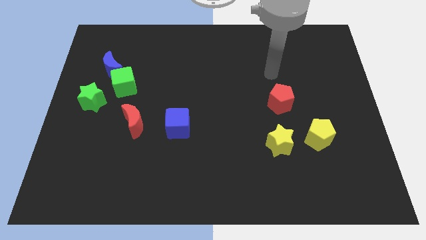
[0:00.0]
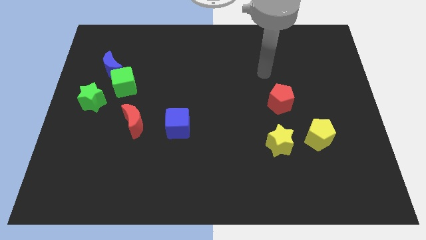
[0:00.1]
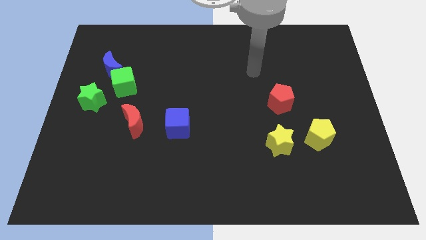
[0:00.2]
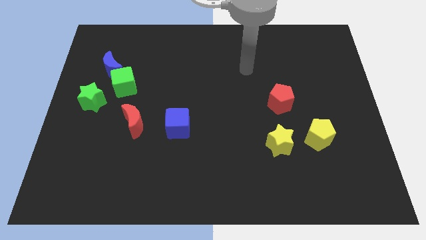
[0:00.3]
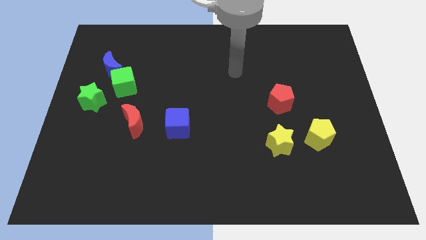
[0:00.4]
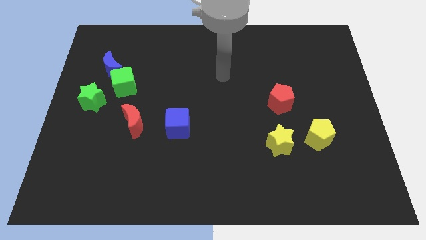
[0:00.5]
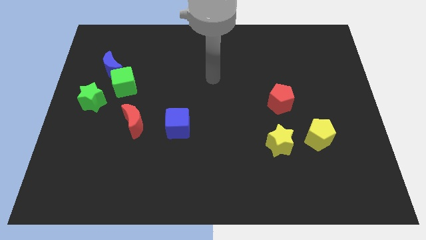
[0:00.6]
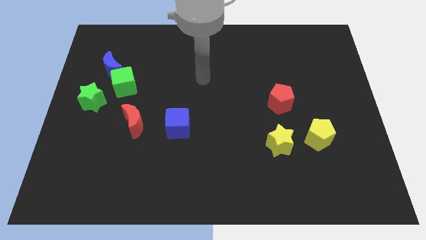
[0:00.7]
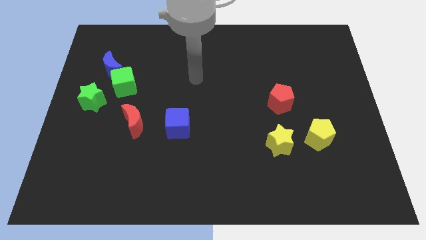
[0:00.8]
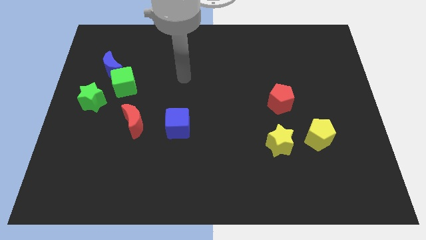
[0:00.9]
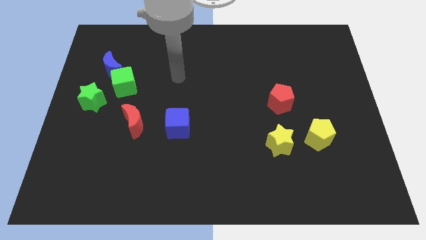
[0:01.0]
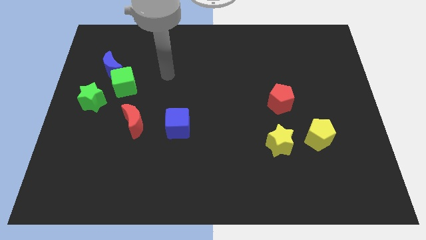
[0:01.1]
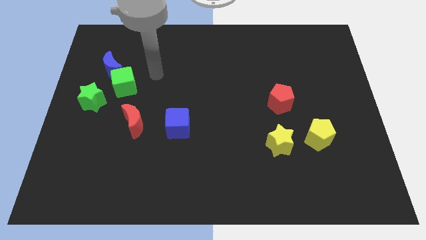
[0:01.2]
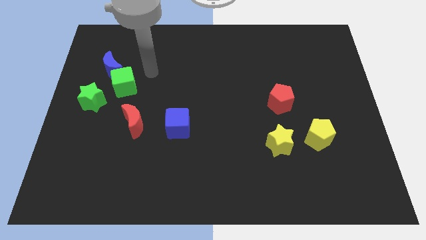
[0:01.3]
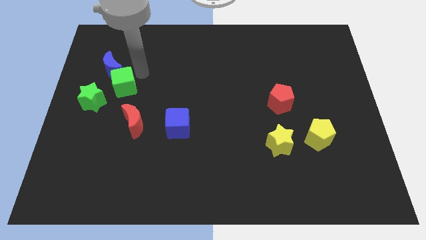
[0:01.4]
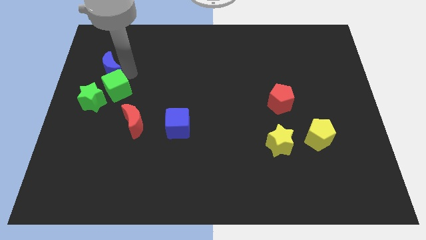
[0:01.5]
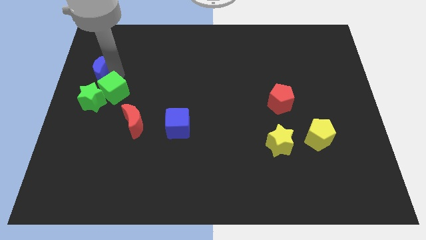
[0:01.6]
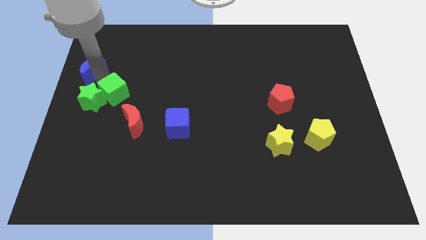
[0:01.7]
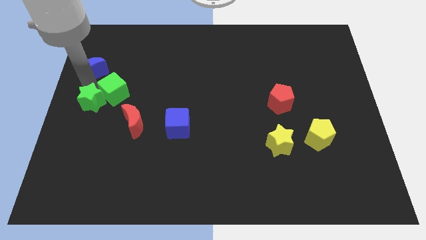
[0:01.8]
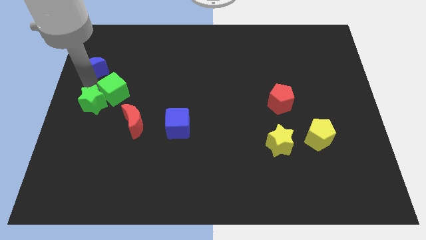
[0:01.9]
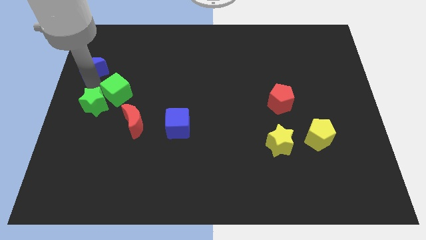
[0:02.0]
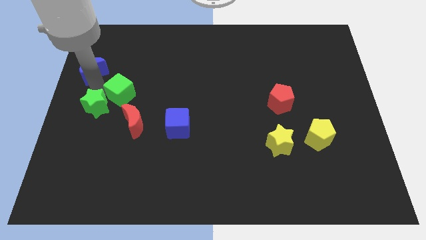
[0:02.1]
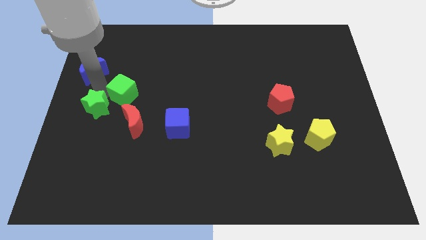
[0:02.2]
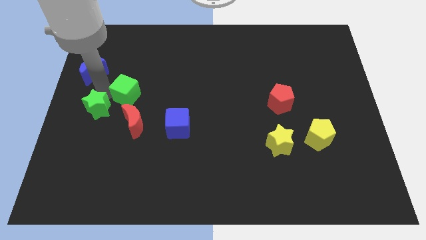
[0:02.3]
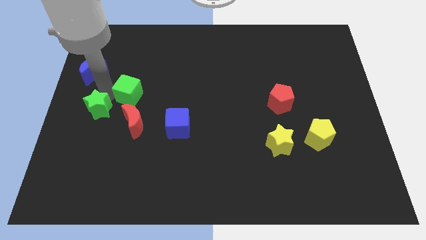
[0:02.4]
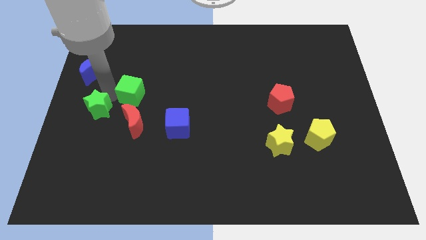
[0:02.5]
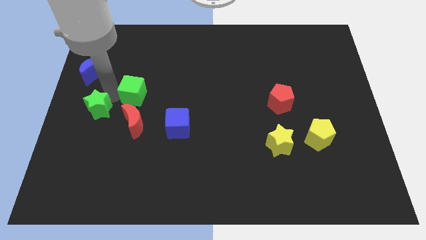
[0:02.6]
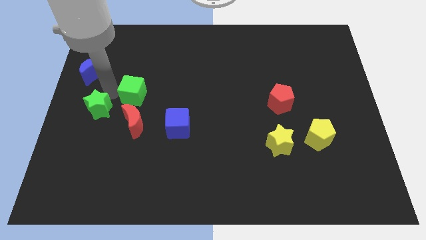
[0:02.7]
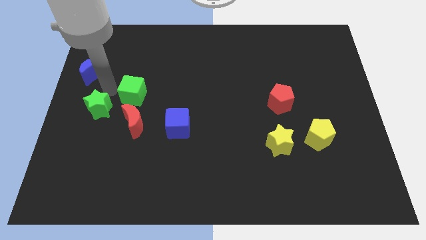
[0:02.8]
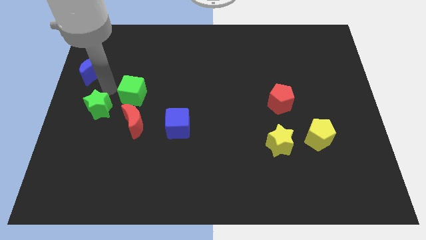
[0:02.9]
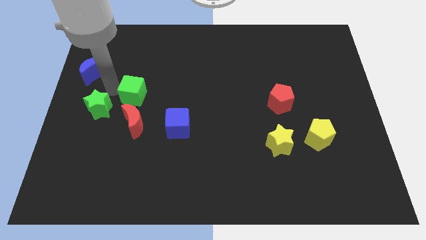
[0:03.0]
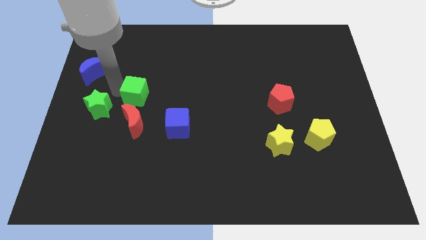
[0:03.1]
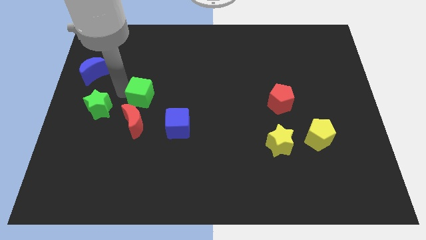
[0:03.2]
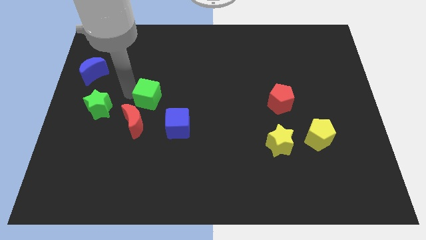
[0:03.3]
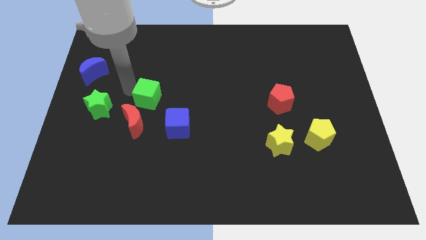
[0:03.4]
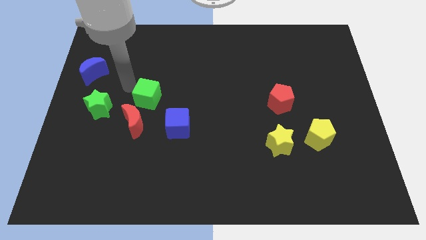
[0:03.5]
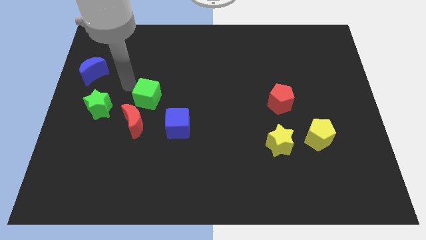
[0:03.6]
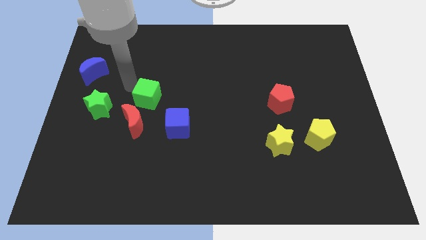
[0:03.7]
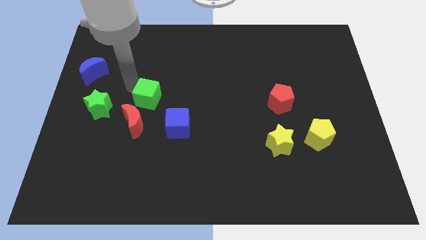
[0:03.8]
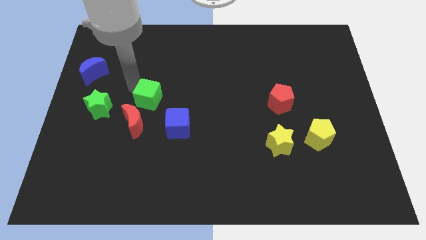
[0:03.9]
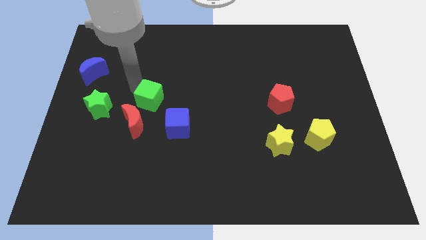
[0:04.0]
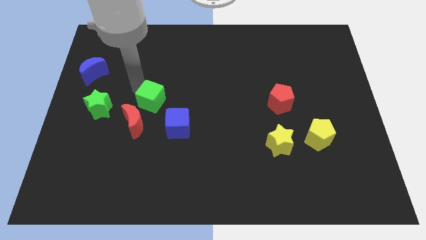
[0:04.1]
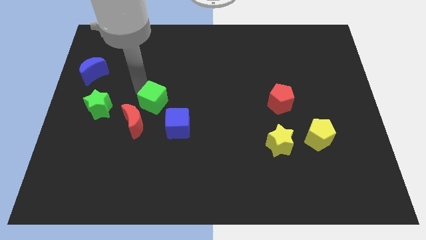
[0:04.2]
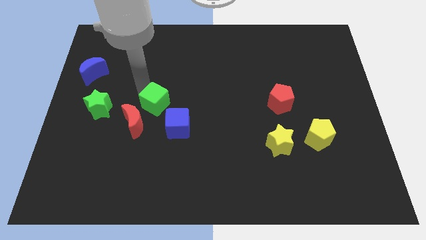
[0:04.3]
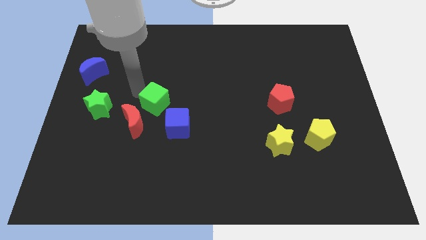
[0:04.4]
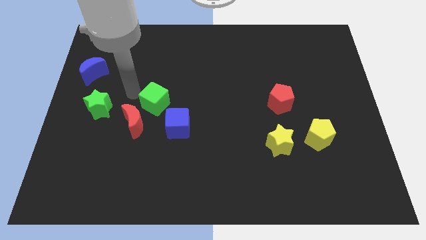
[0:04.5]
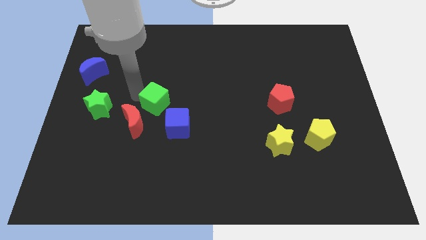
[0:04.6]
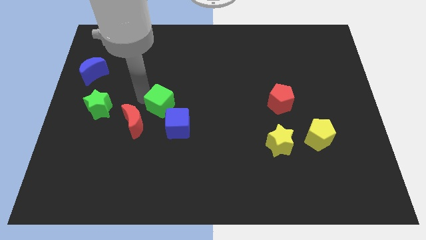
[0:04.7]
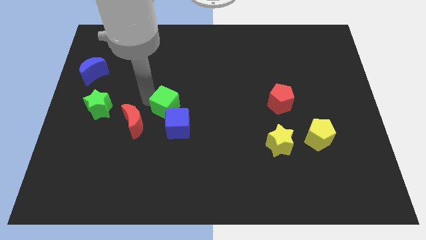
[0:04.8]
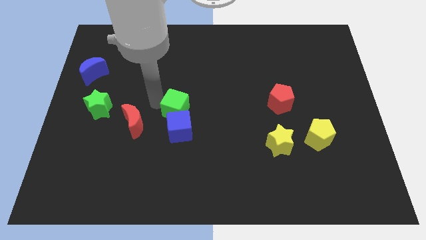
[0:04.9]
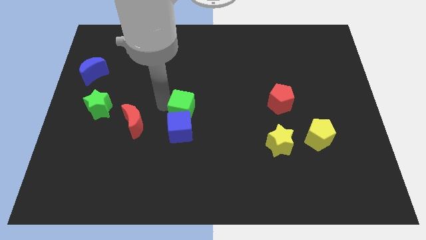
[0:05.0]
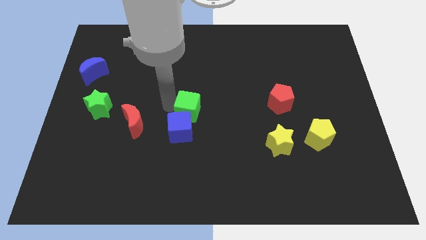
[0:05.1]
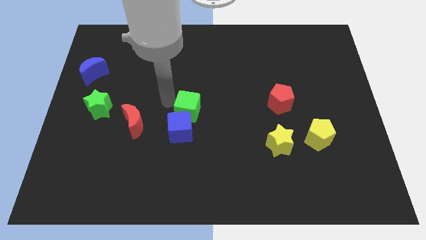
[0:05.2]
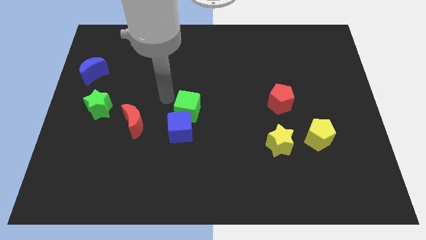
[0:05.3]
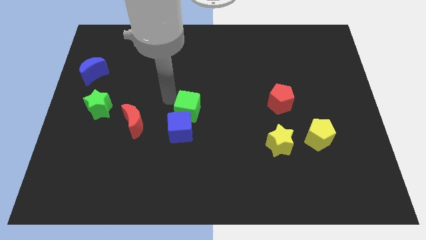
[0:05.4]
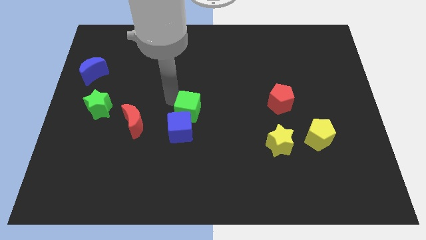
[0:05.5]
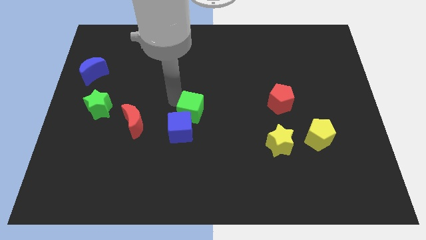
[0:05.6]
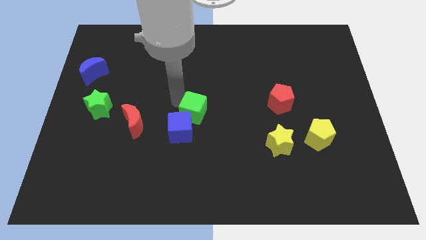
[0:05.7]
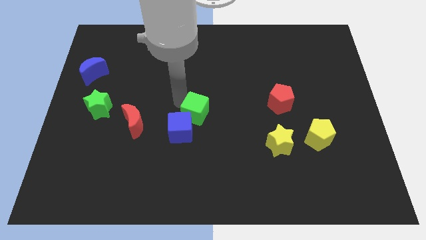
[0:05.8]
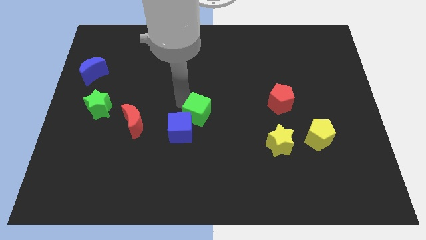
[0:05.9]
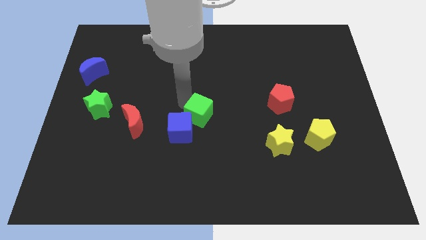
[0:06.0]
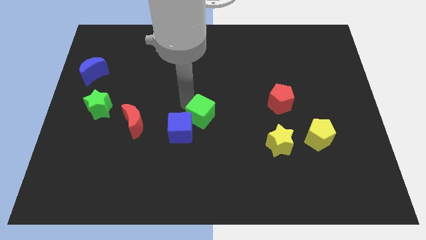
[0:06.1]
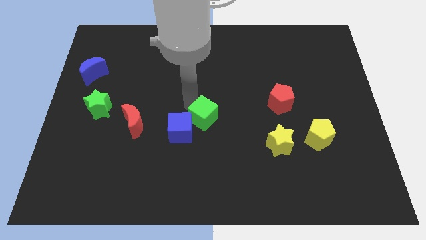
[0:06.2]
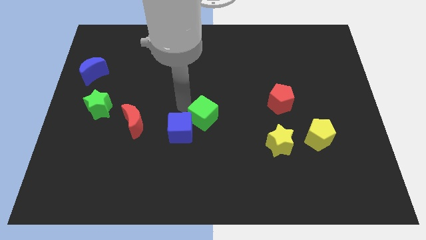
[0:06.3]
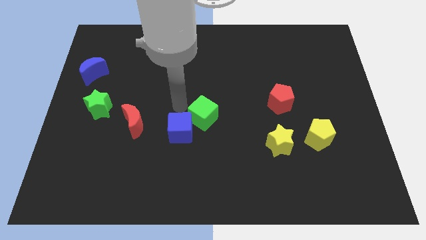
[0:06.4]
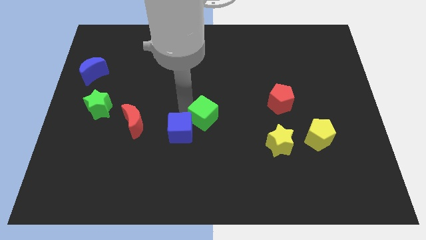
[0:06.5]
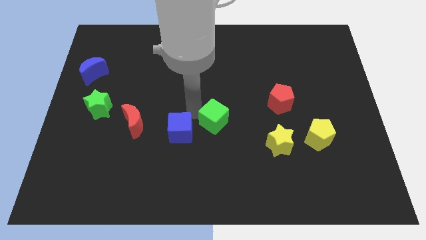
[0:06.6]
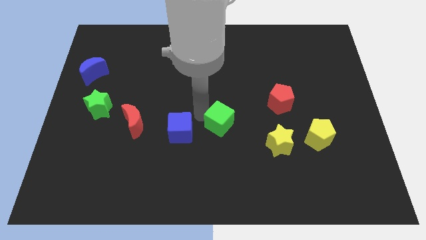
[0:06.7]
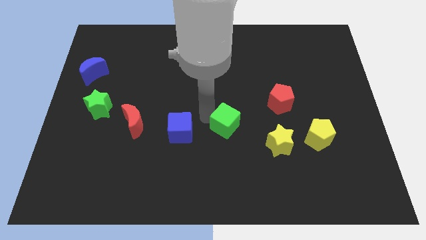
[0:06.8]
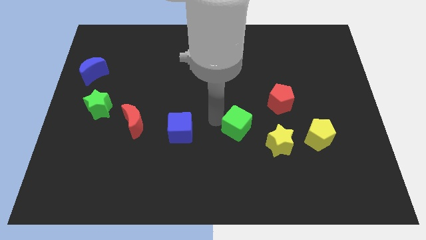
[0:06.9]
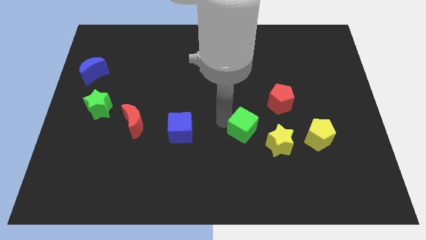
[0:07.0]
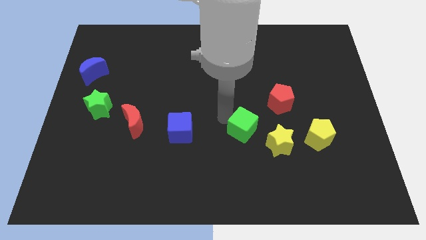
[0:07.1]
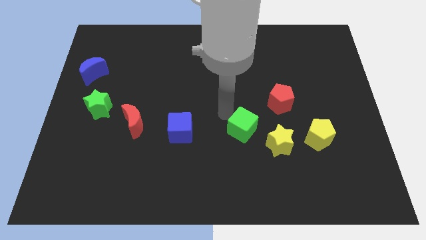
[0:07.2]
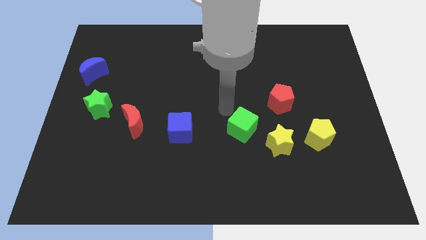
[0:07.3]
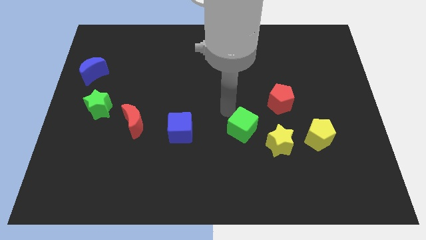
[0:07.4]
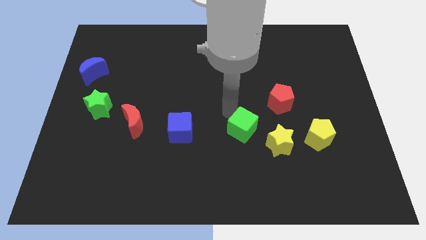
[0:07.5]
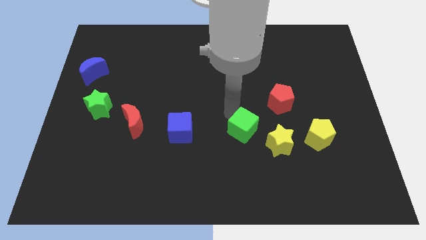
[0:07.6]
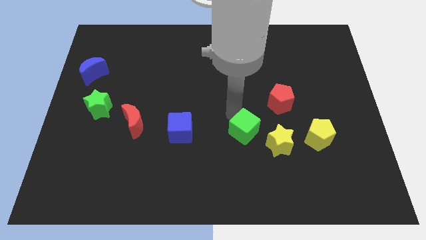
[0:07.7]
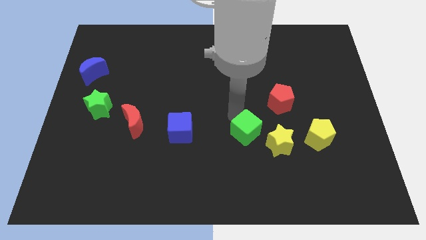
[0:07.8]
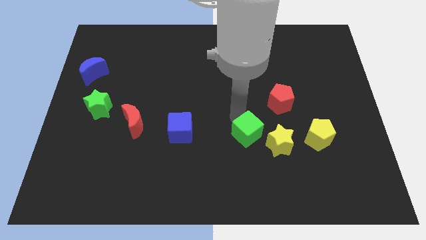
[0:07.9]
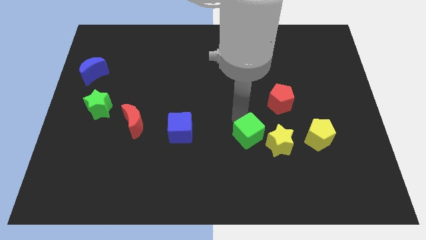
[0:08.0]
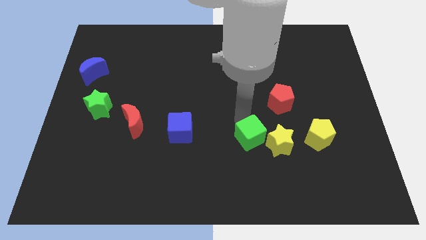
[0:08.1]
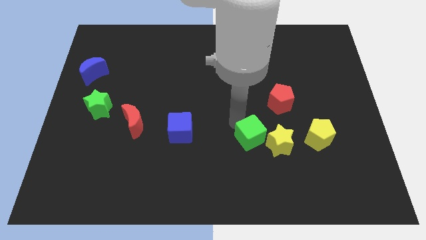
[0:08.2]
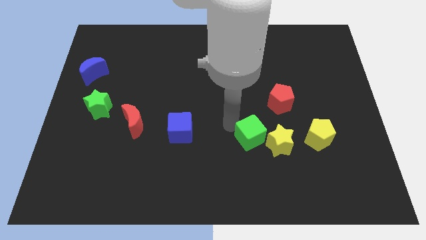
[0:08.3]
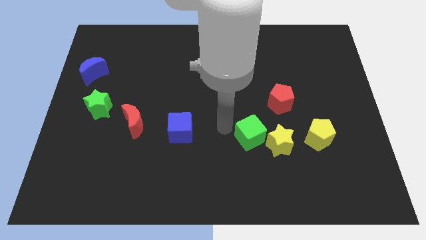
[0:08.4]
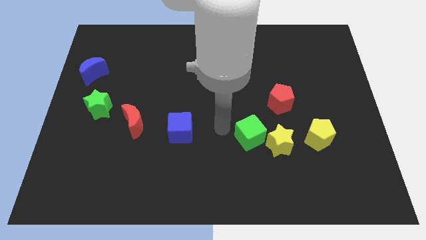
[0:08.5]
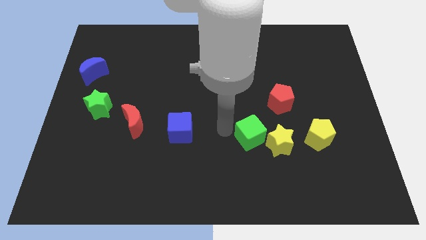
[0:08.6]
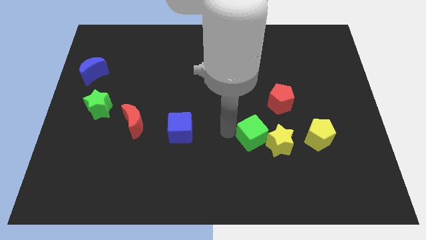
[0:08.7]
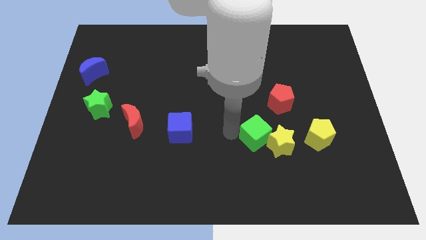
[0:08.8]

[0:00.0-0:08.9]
put the green cube to the yellow star
